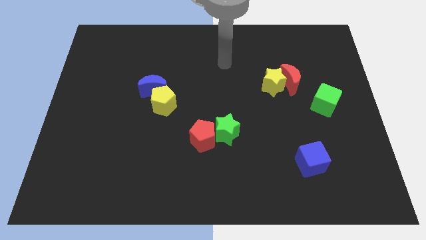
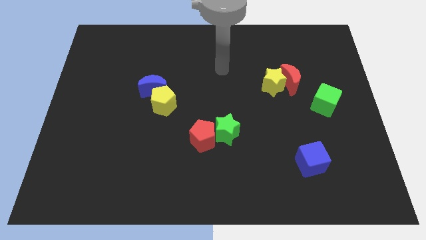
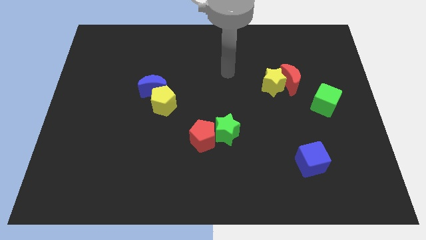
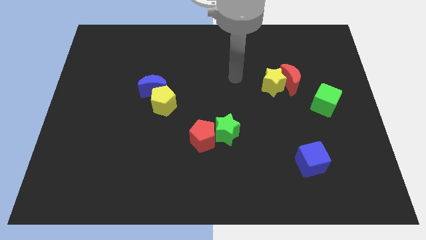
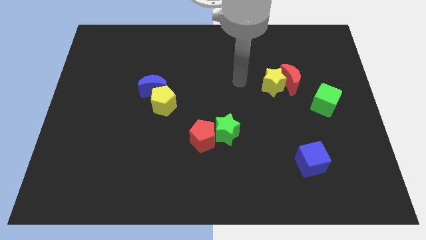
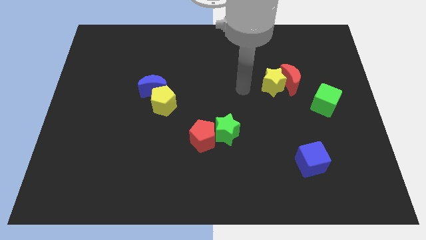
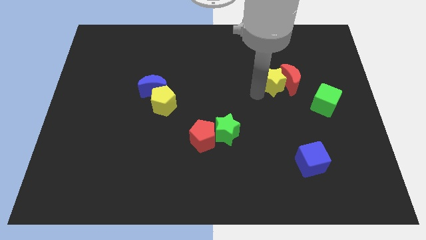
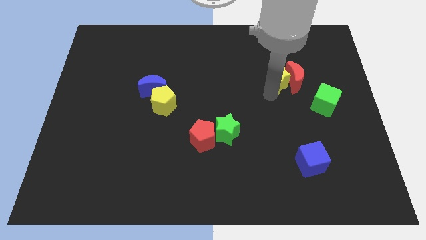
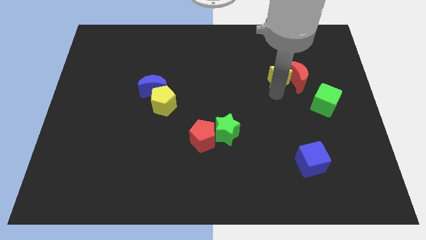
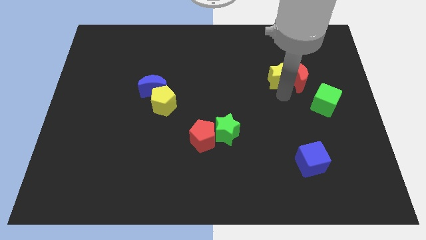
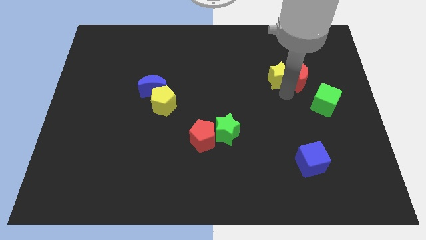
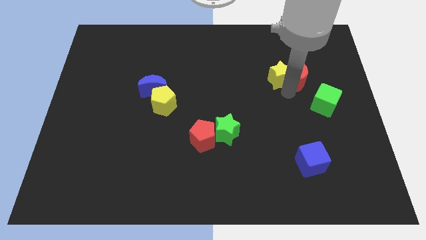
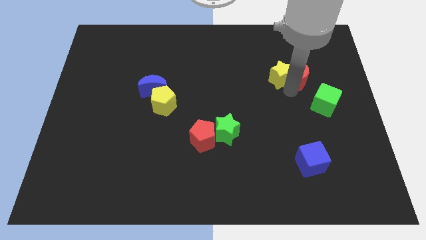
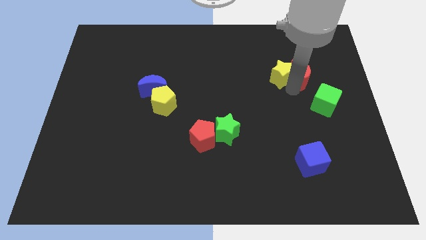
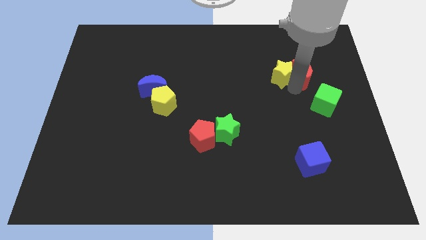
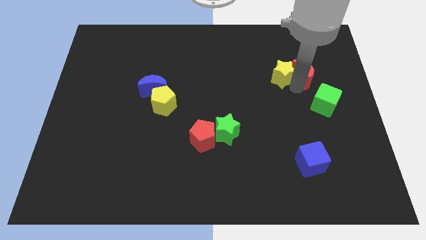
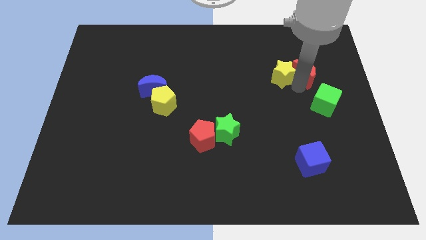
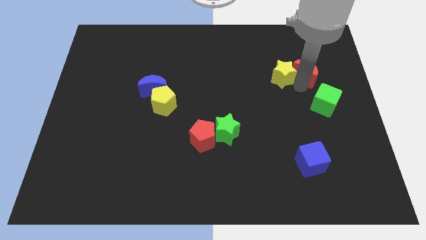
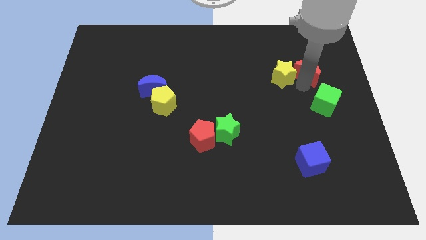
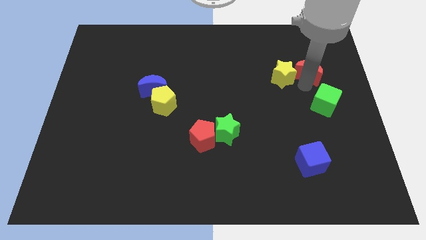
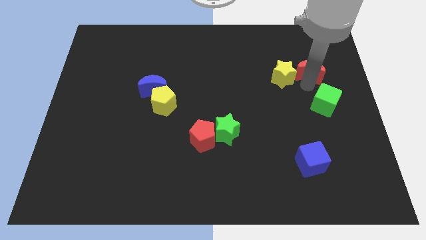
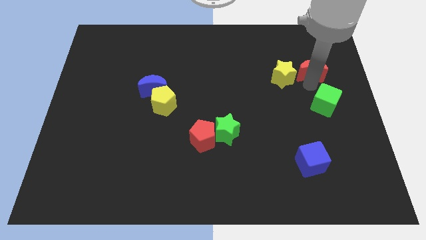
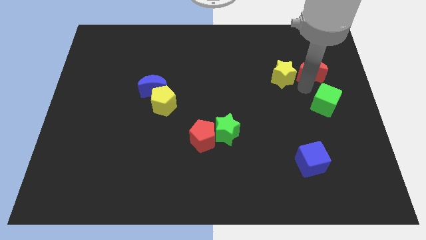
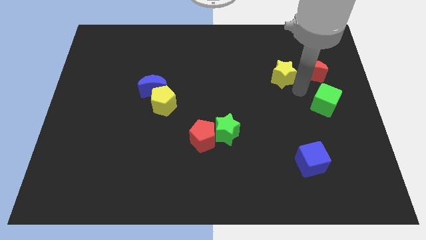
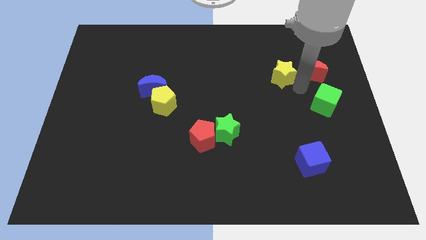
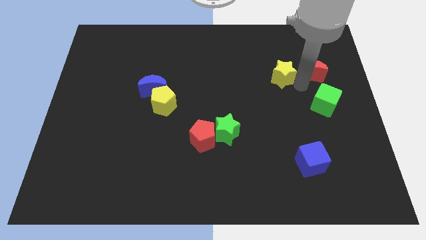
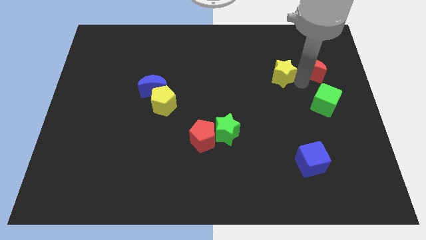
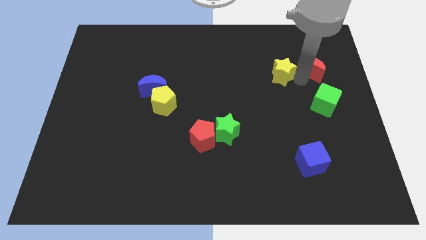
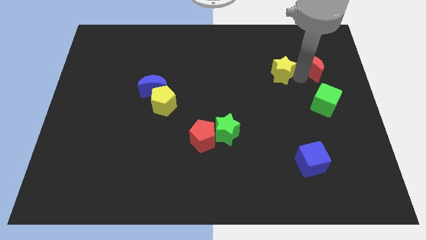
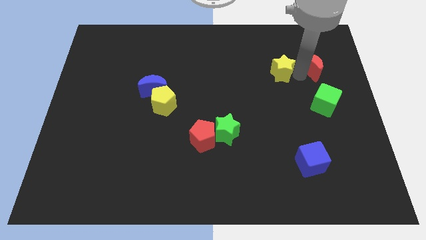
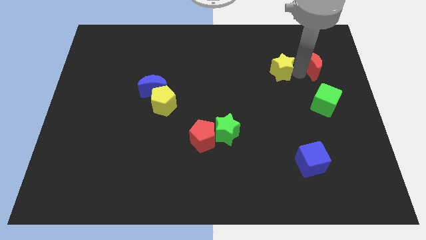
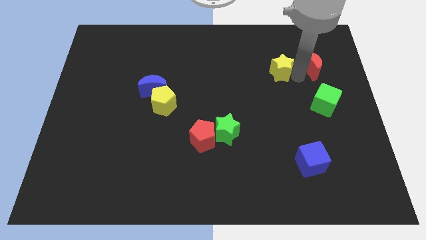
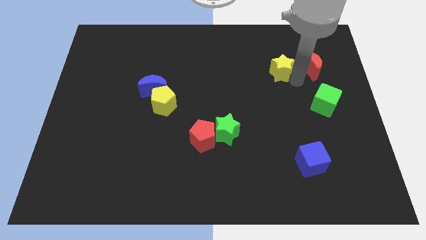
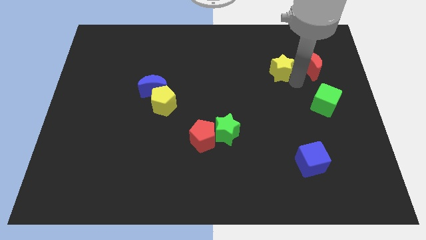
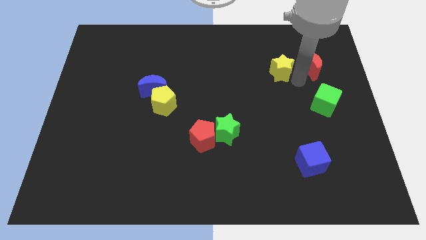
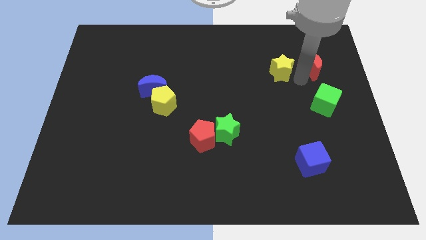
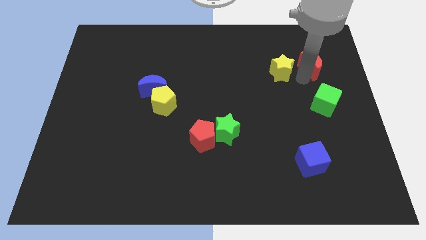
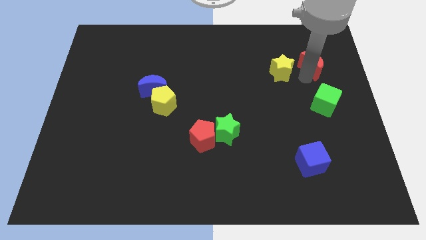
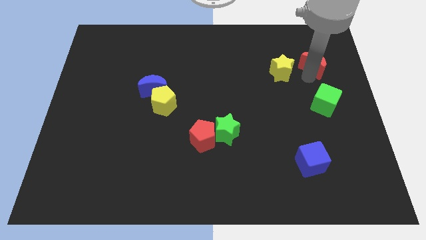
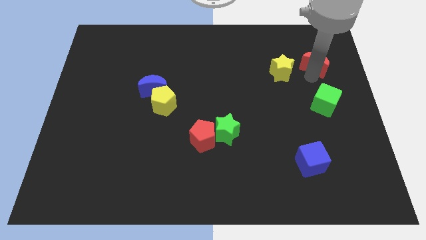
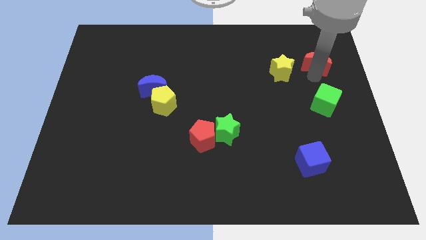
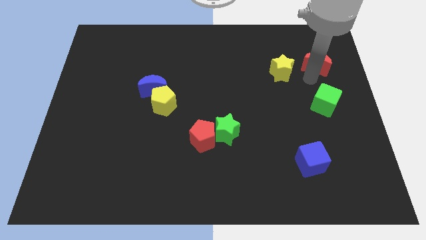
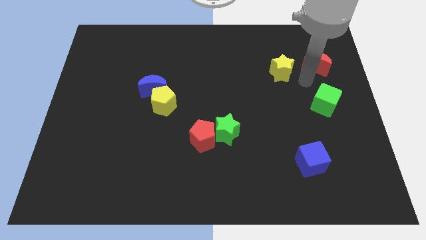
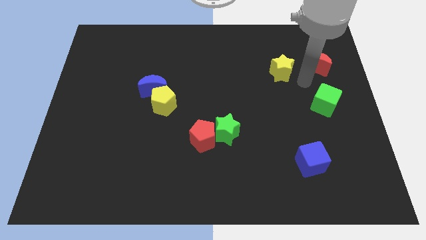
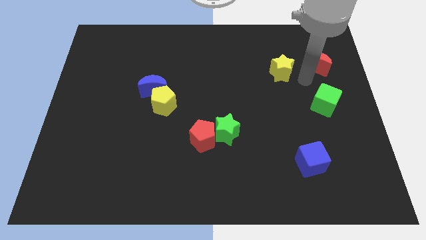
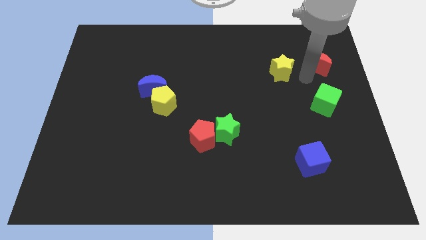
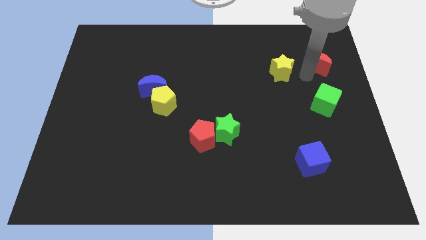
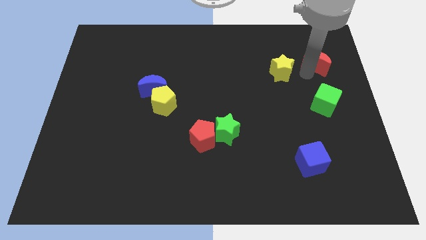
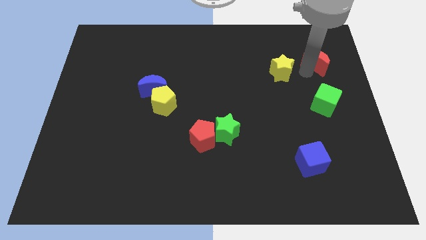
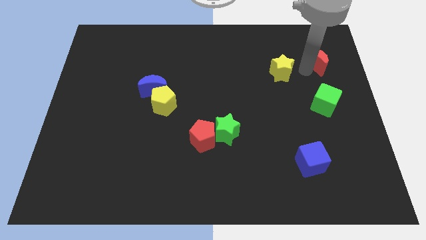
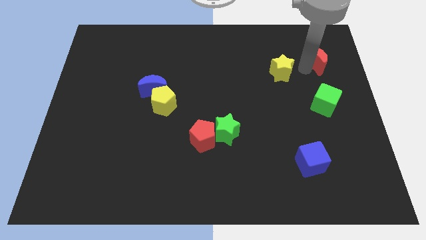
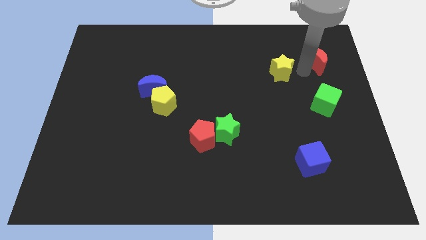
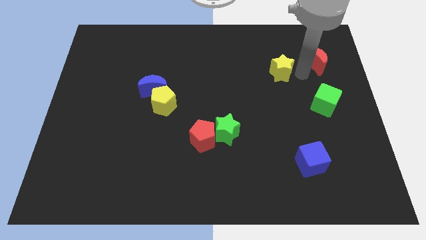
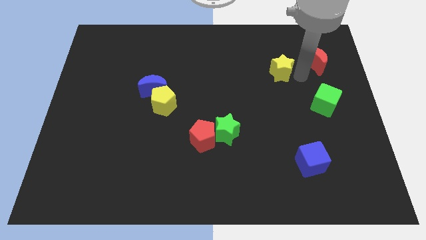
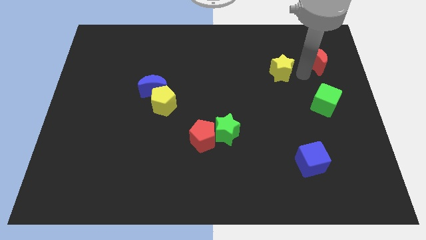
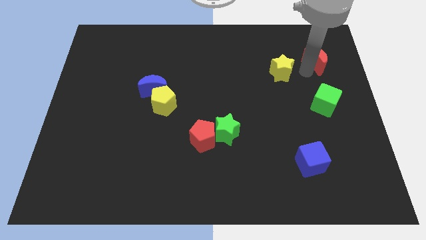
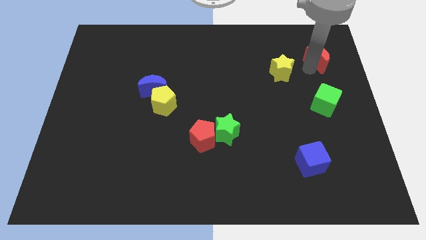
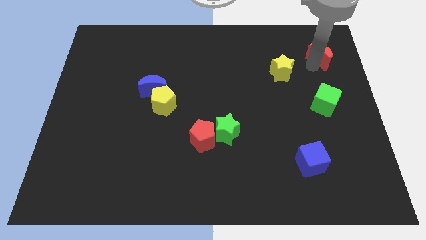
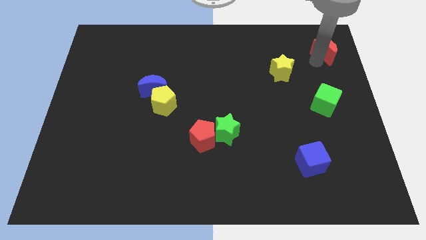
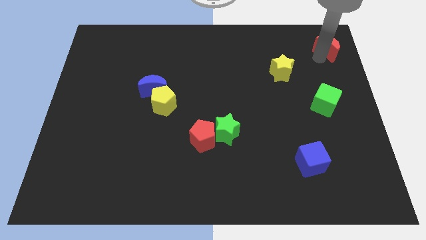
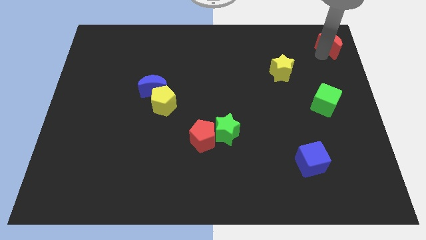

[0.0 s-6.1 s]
slide the red moon to the top right corner
